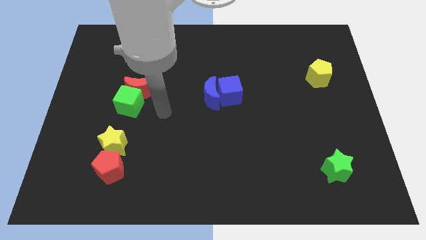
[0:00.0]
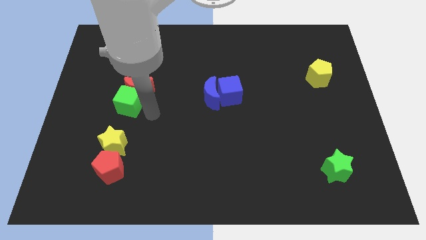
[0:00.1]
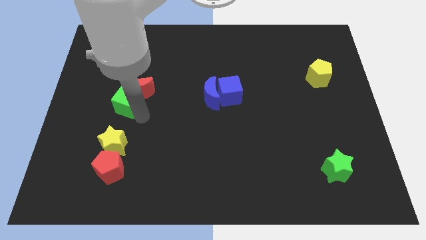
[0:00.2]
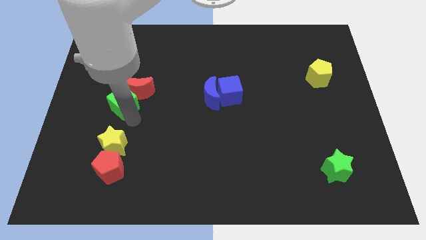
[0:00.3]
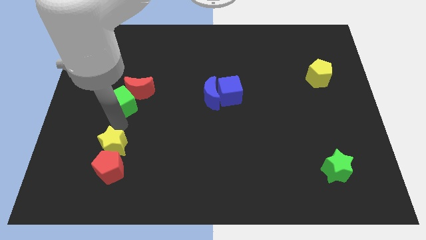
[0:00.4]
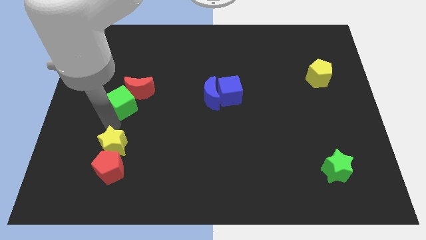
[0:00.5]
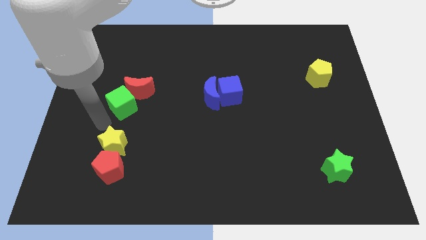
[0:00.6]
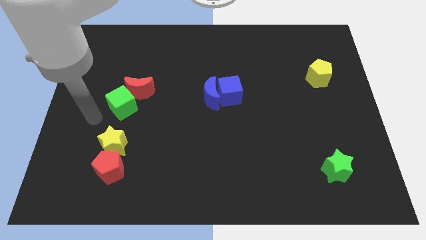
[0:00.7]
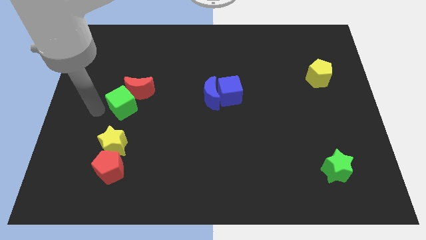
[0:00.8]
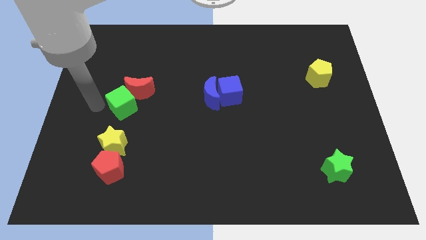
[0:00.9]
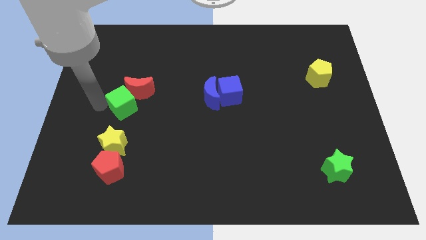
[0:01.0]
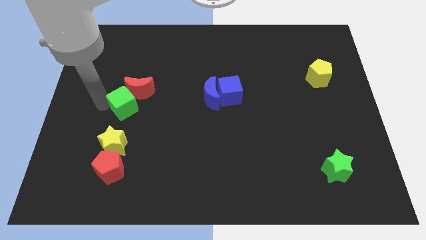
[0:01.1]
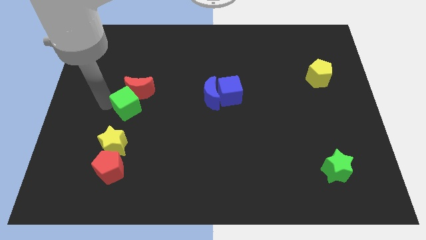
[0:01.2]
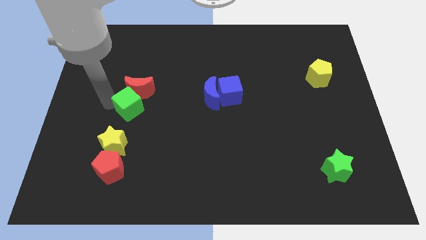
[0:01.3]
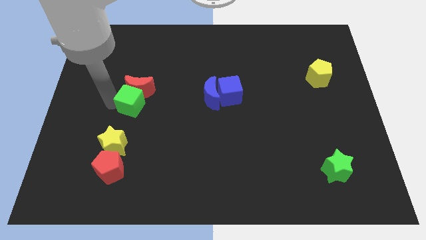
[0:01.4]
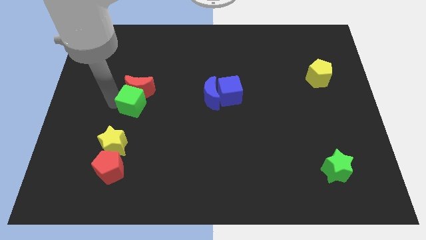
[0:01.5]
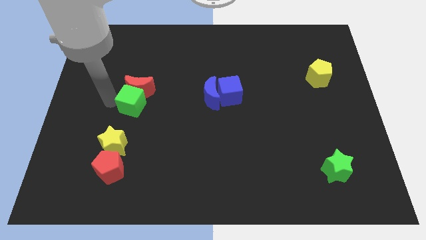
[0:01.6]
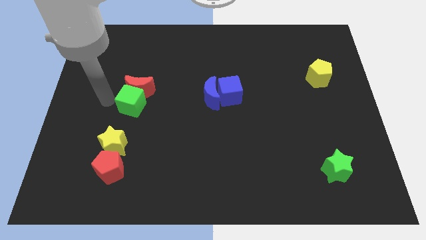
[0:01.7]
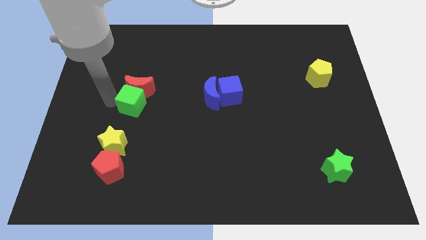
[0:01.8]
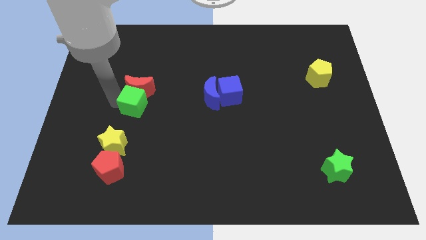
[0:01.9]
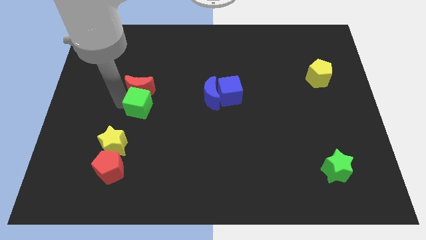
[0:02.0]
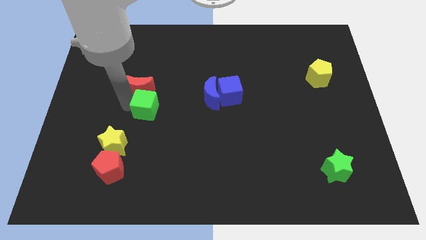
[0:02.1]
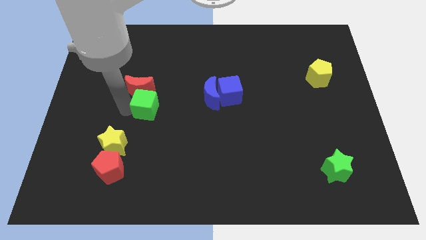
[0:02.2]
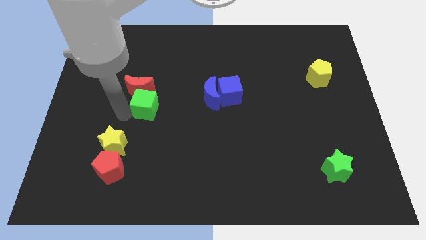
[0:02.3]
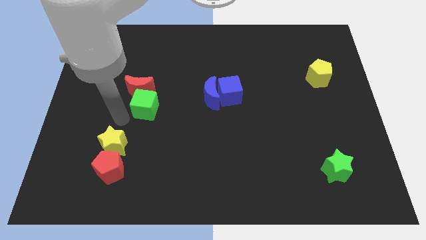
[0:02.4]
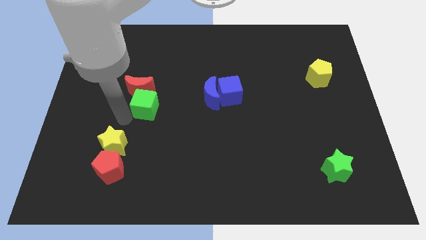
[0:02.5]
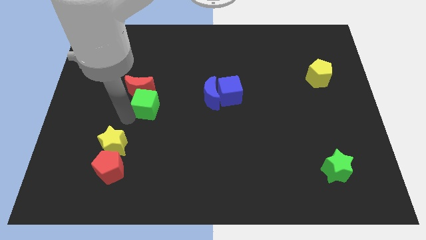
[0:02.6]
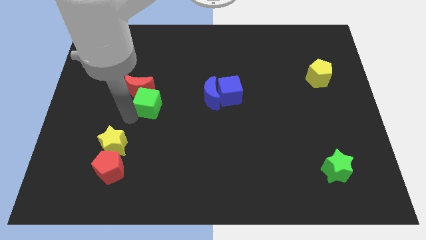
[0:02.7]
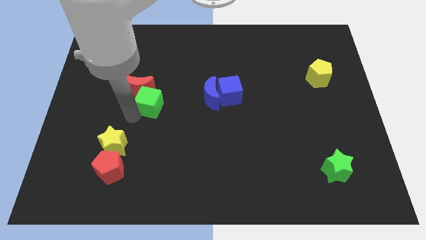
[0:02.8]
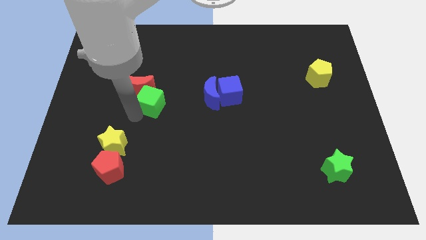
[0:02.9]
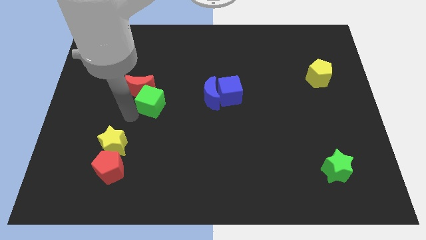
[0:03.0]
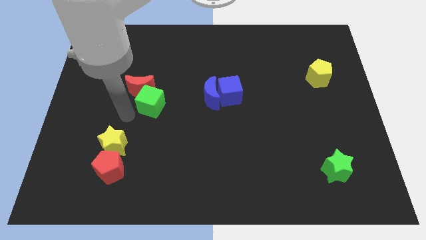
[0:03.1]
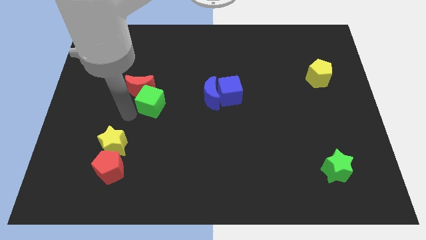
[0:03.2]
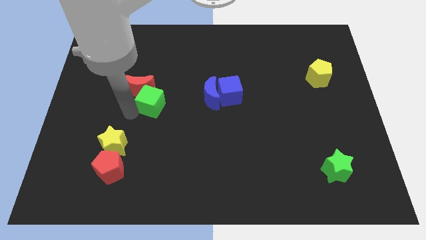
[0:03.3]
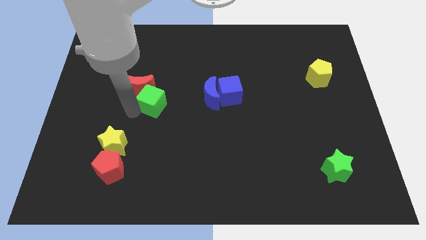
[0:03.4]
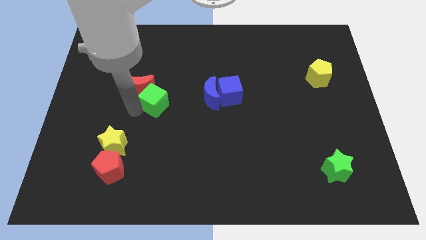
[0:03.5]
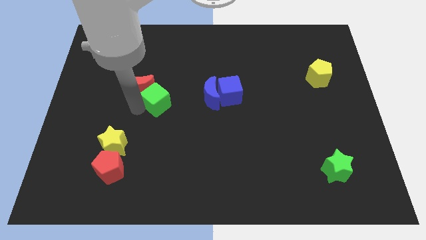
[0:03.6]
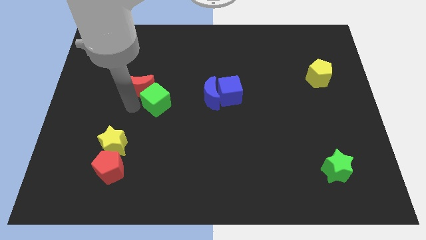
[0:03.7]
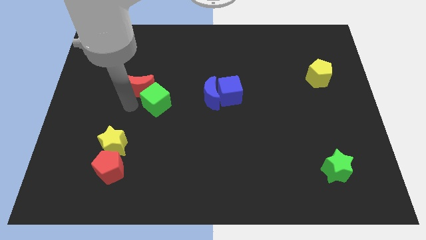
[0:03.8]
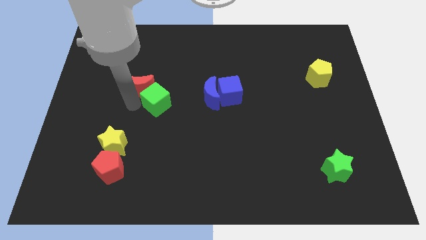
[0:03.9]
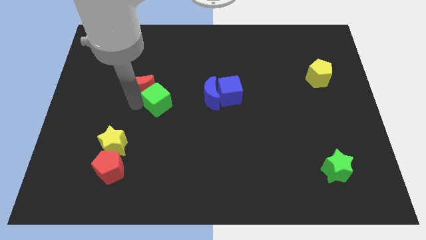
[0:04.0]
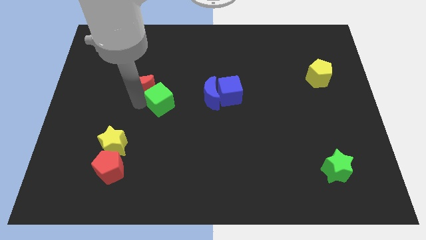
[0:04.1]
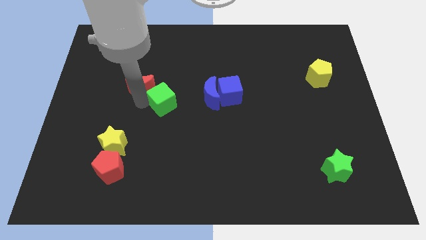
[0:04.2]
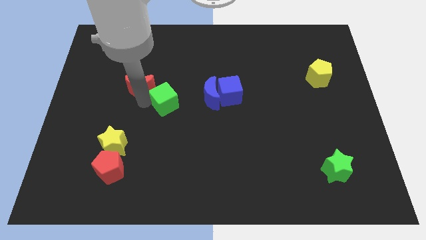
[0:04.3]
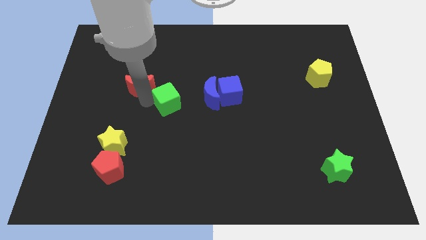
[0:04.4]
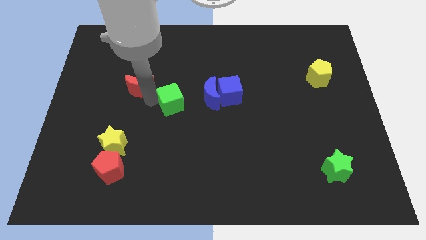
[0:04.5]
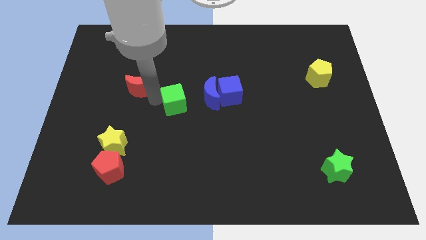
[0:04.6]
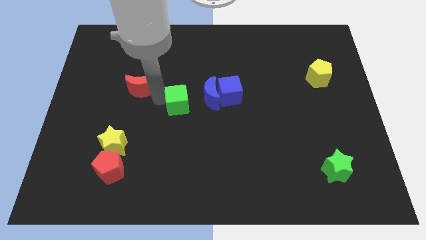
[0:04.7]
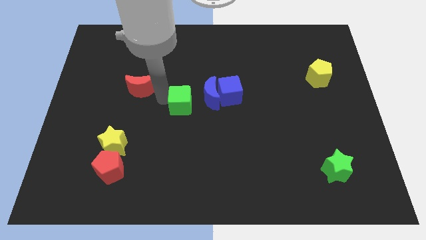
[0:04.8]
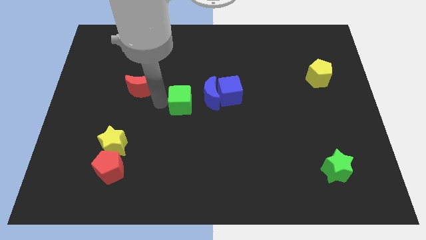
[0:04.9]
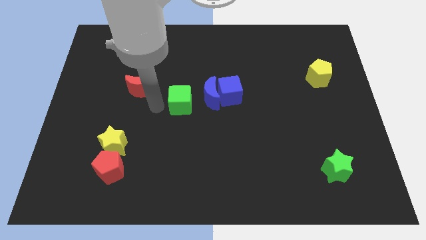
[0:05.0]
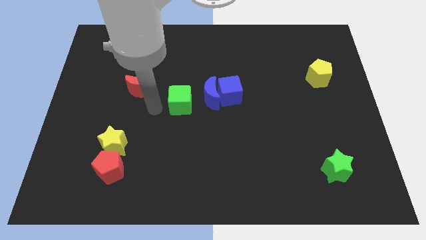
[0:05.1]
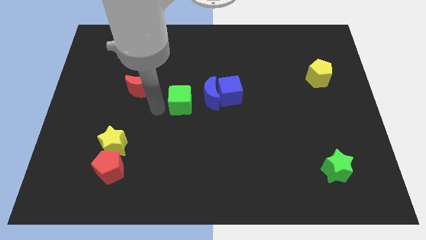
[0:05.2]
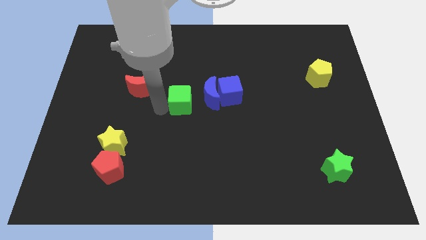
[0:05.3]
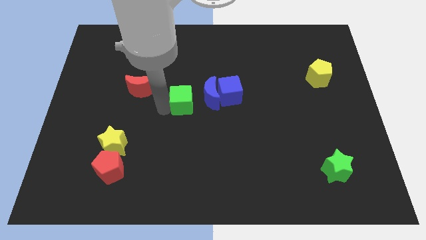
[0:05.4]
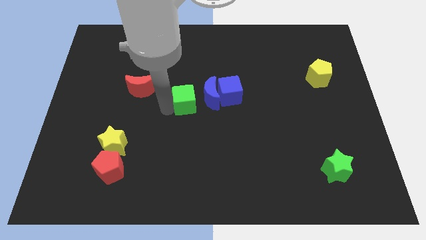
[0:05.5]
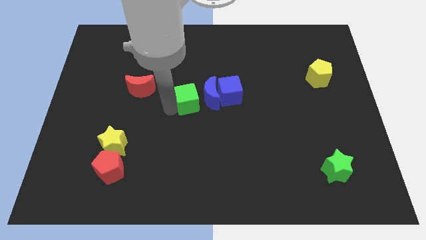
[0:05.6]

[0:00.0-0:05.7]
move the green cube towards the blue moon

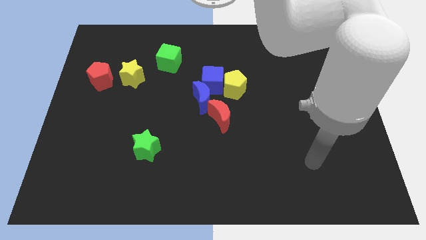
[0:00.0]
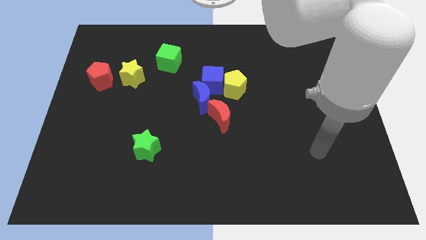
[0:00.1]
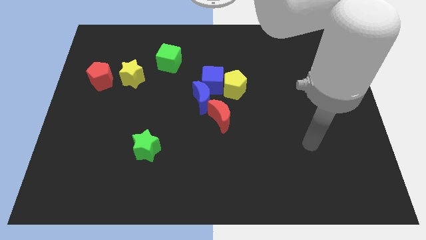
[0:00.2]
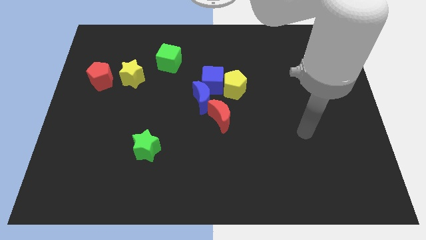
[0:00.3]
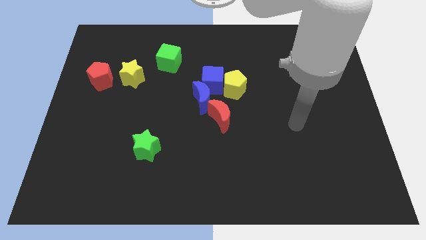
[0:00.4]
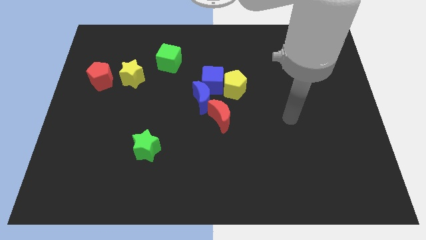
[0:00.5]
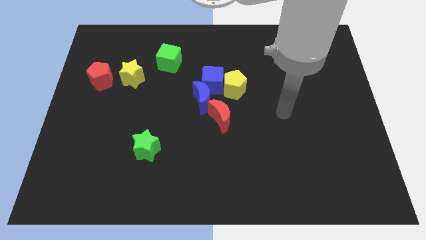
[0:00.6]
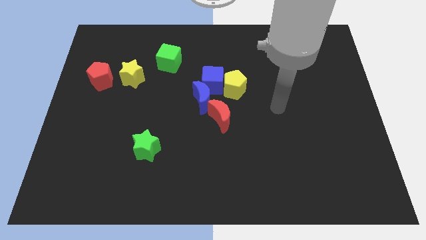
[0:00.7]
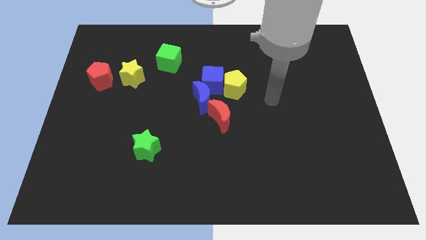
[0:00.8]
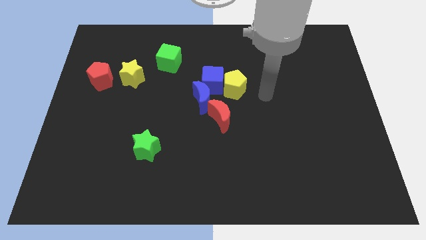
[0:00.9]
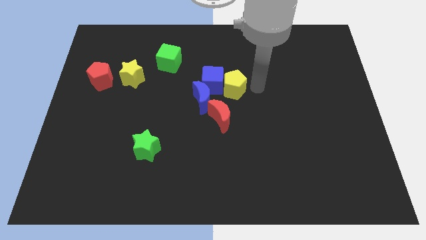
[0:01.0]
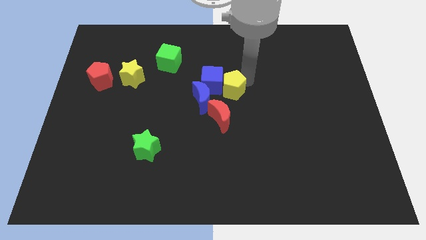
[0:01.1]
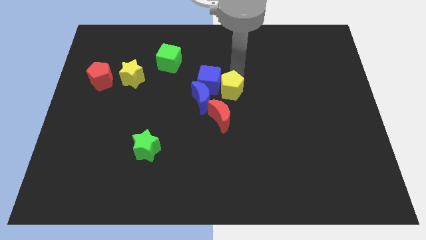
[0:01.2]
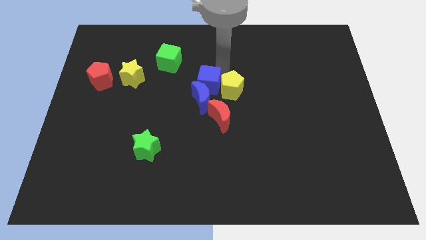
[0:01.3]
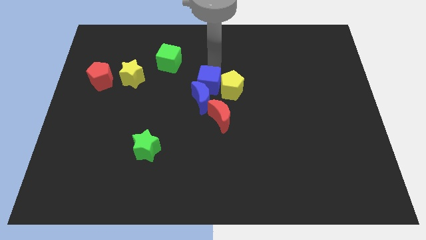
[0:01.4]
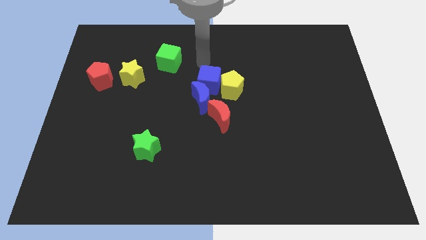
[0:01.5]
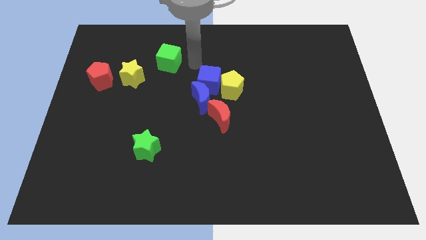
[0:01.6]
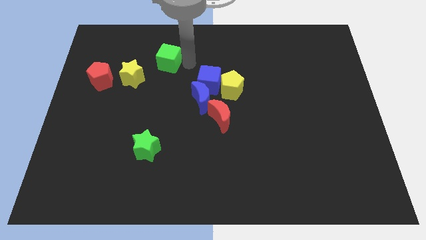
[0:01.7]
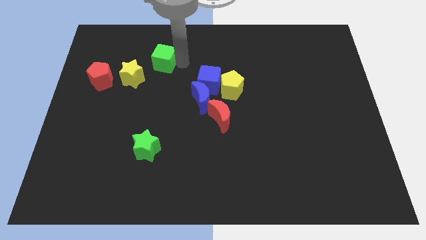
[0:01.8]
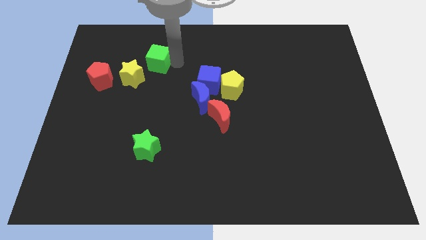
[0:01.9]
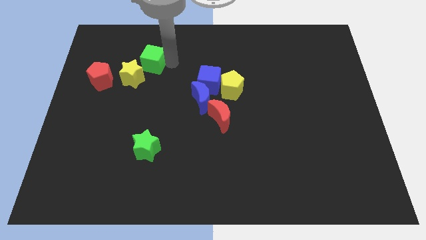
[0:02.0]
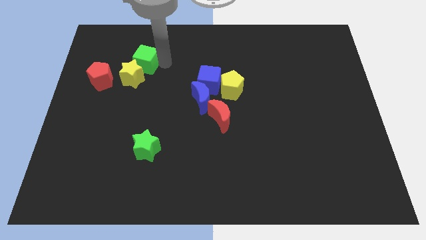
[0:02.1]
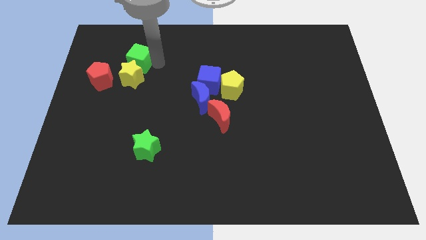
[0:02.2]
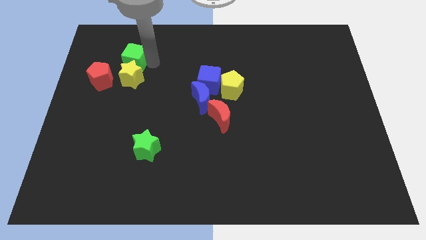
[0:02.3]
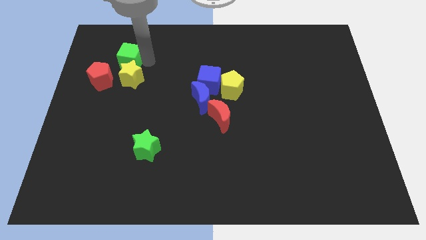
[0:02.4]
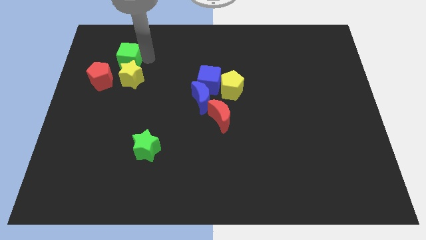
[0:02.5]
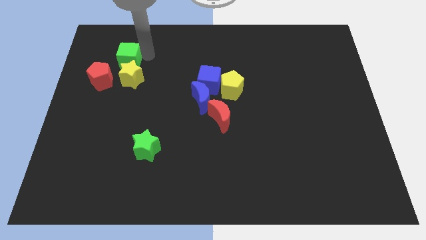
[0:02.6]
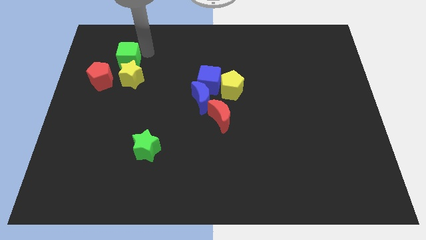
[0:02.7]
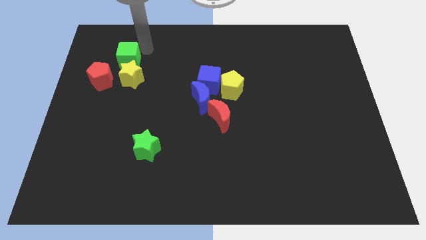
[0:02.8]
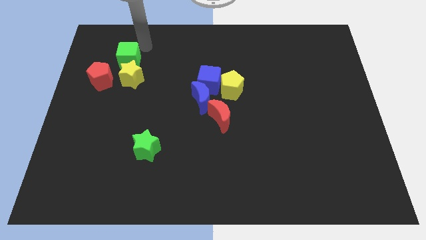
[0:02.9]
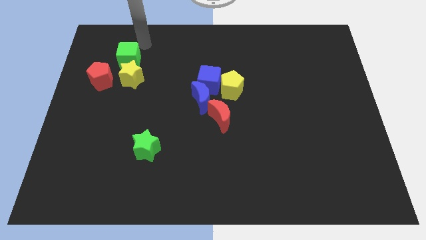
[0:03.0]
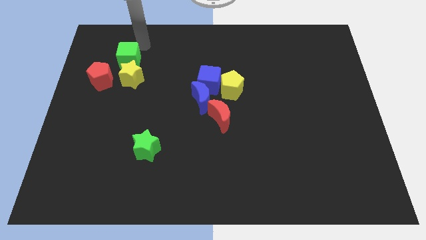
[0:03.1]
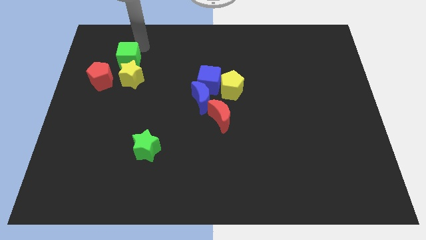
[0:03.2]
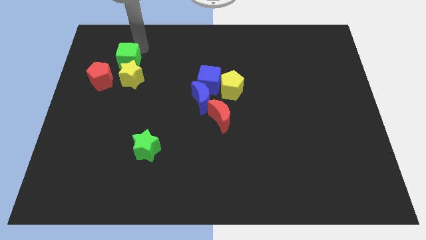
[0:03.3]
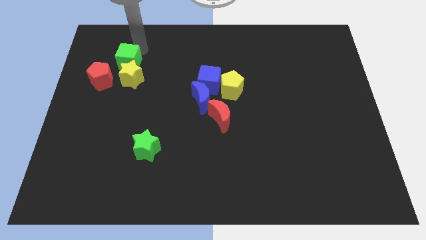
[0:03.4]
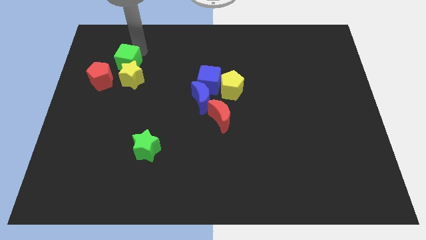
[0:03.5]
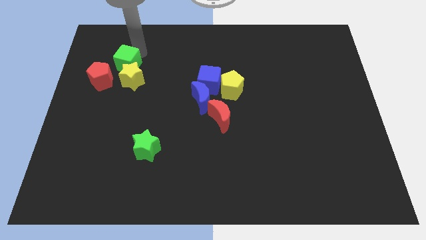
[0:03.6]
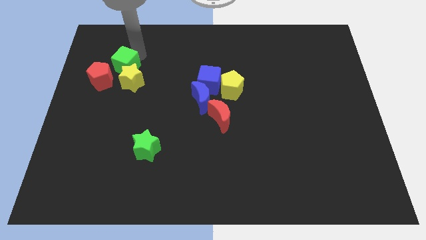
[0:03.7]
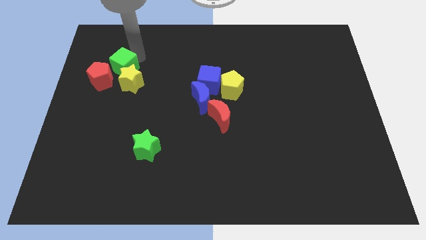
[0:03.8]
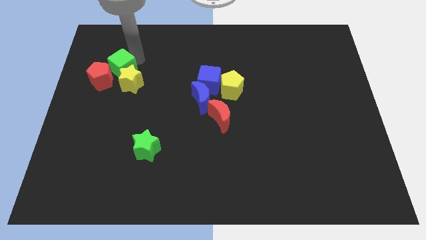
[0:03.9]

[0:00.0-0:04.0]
slide the green cube next to the red pentagon
